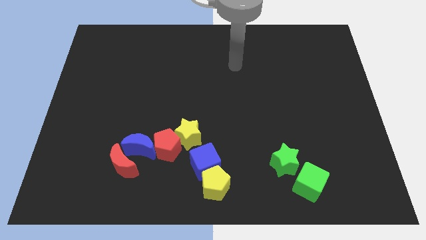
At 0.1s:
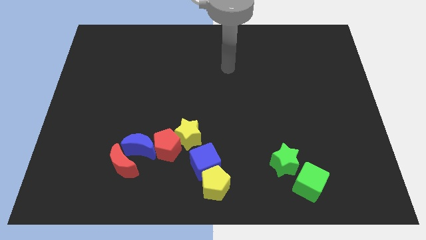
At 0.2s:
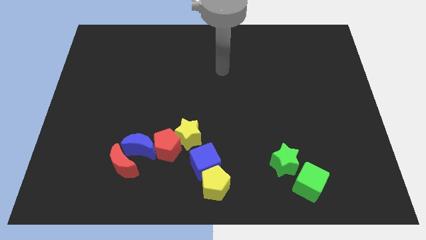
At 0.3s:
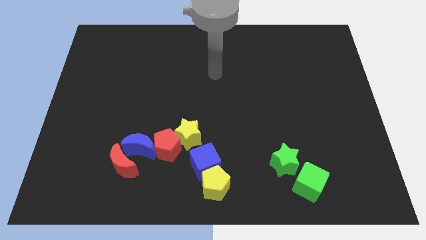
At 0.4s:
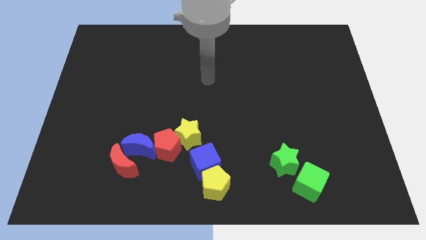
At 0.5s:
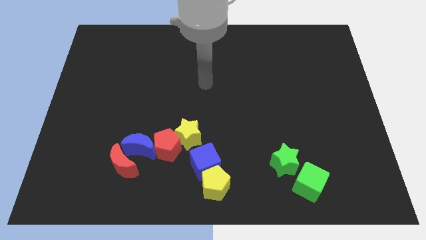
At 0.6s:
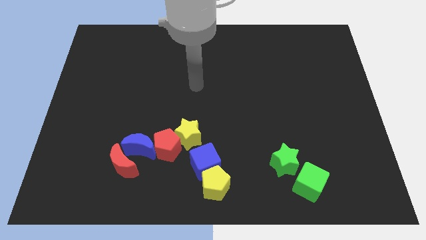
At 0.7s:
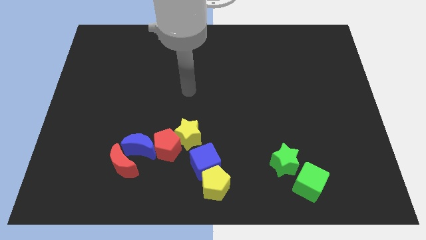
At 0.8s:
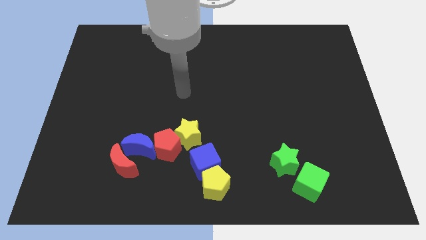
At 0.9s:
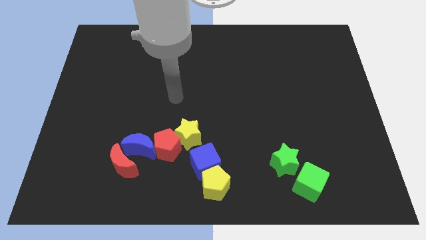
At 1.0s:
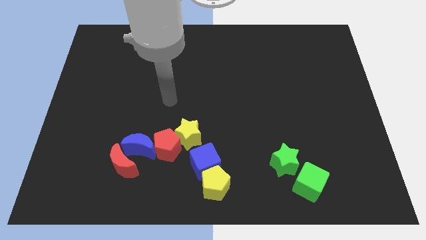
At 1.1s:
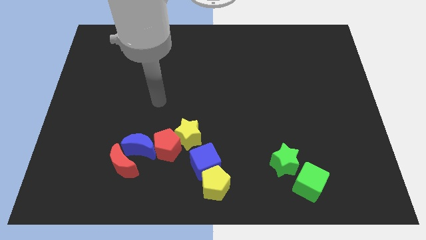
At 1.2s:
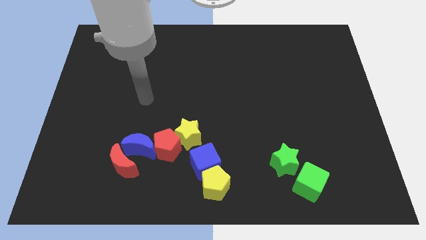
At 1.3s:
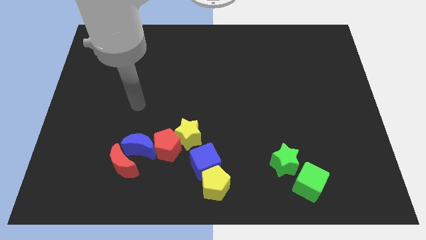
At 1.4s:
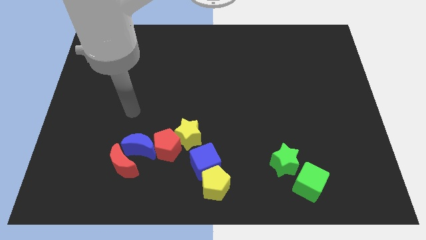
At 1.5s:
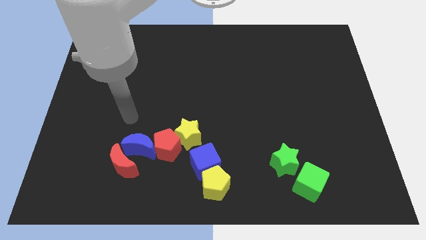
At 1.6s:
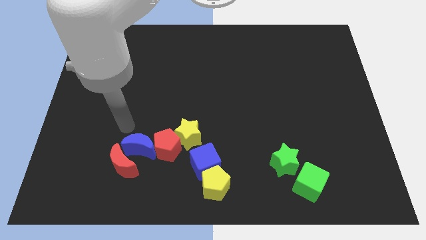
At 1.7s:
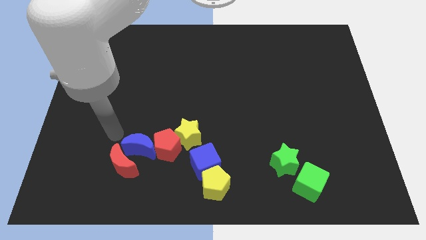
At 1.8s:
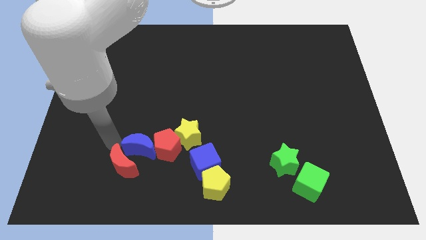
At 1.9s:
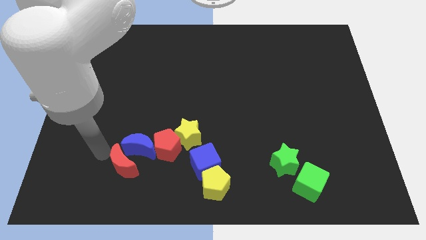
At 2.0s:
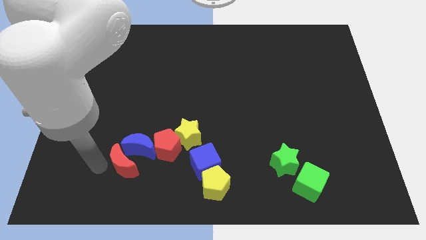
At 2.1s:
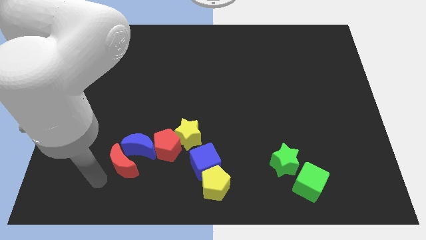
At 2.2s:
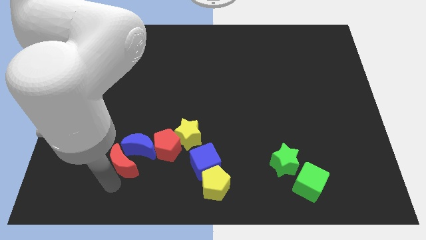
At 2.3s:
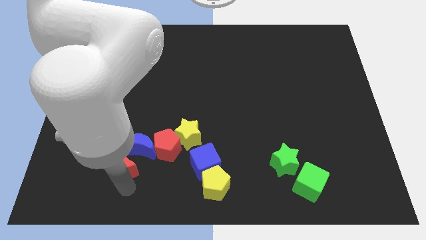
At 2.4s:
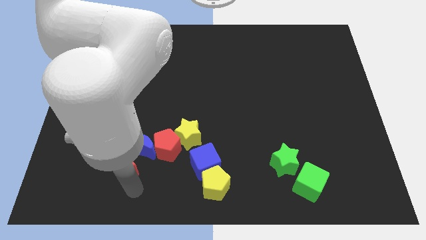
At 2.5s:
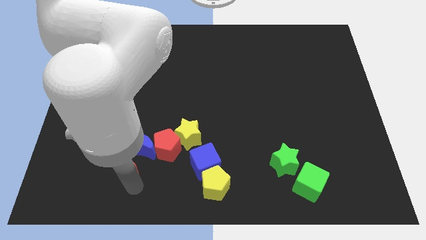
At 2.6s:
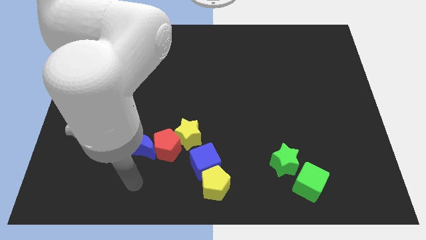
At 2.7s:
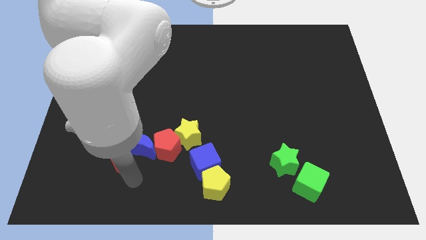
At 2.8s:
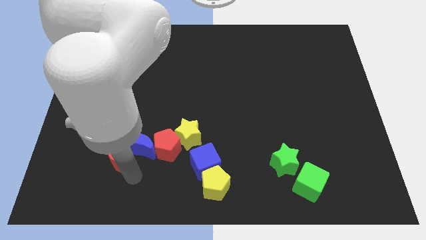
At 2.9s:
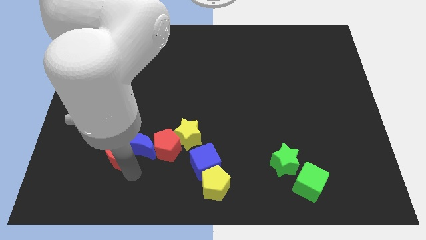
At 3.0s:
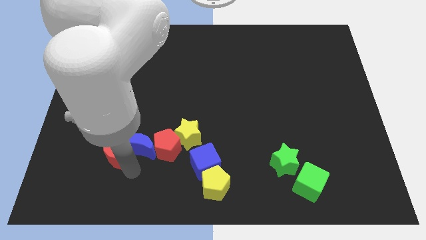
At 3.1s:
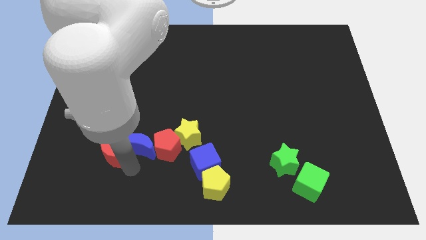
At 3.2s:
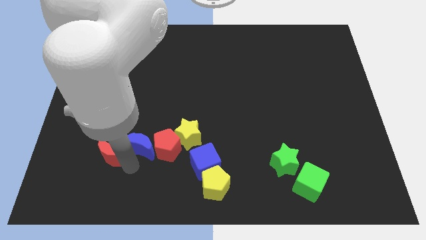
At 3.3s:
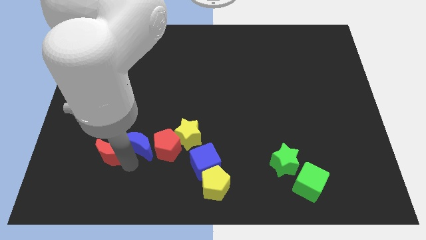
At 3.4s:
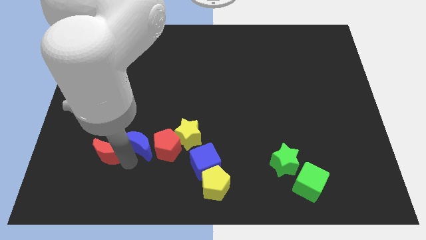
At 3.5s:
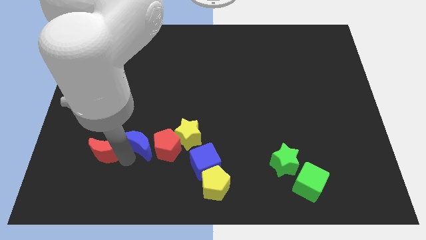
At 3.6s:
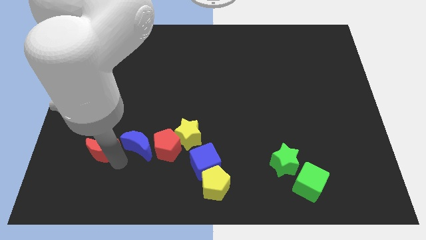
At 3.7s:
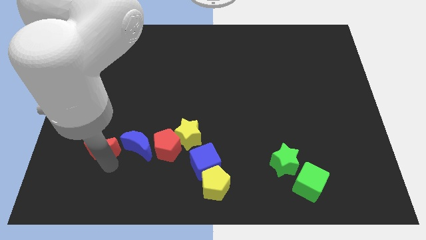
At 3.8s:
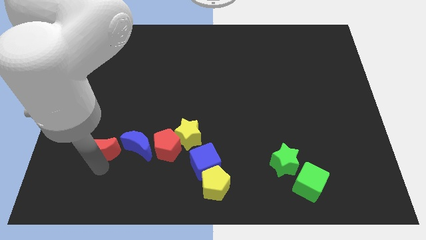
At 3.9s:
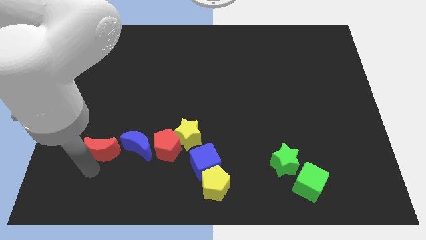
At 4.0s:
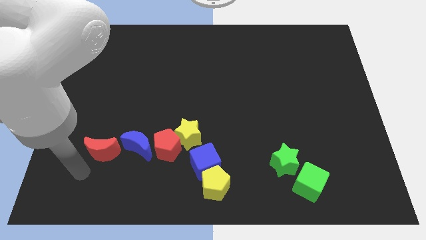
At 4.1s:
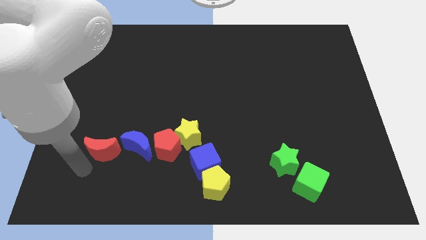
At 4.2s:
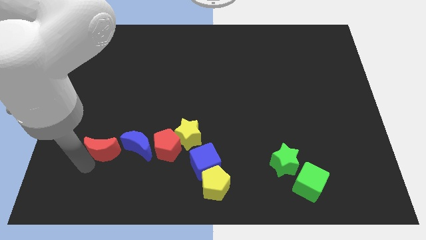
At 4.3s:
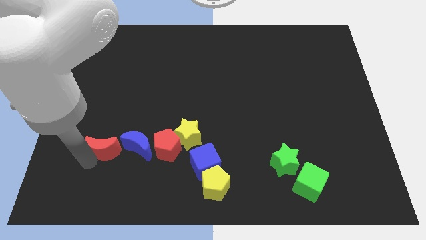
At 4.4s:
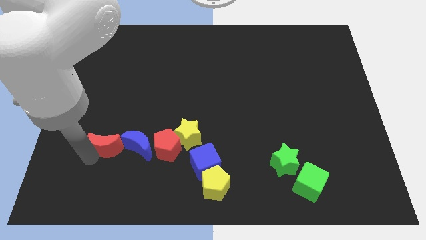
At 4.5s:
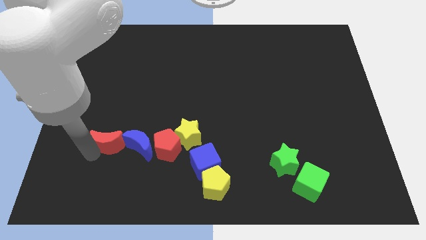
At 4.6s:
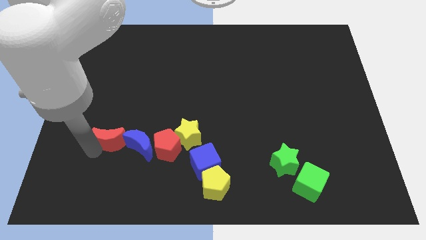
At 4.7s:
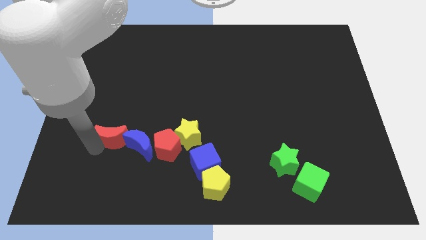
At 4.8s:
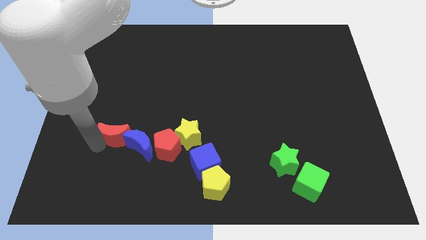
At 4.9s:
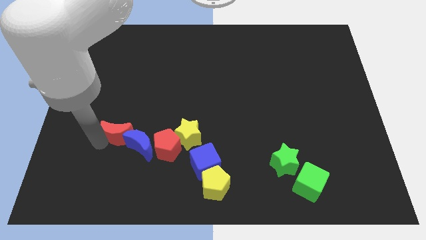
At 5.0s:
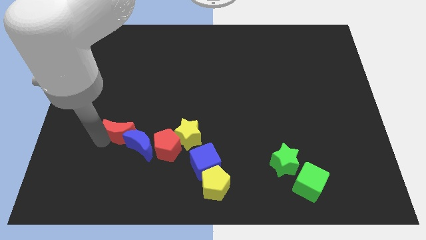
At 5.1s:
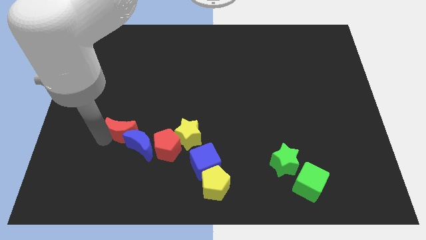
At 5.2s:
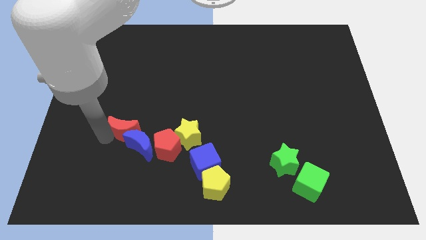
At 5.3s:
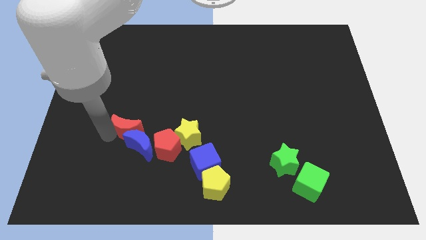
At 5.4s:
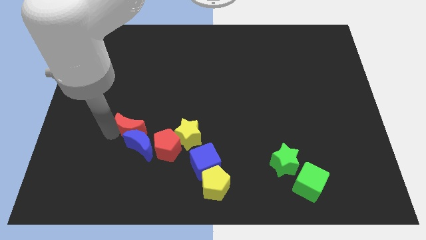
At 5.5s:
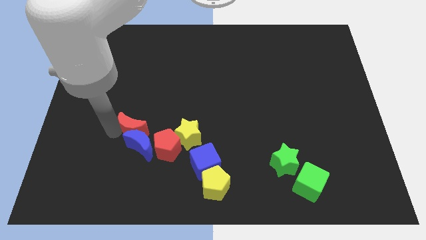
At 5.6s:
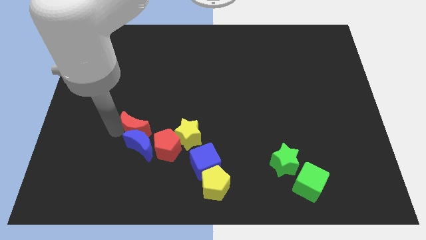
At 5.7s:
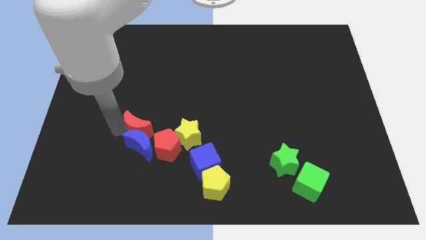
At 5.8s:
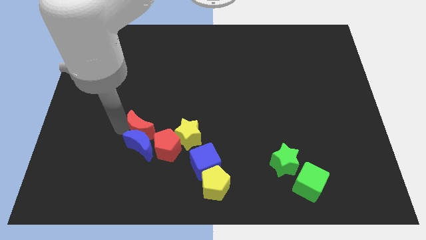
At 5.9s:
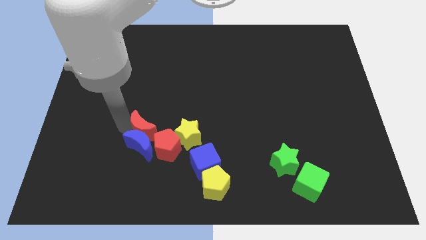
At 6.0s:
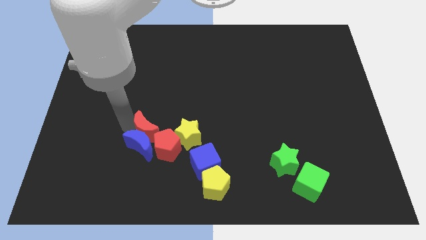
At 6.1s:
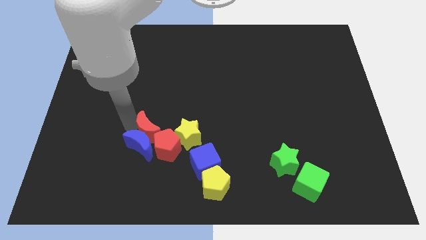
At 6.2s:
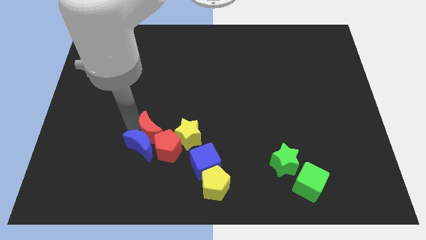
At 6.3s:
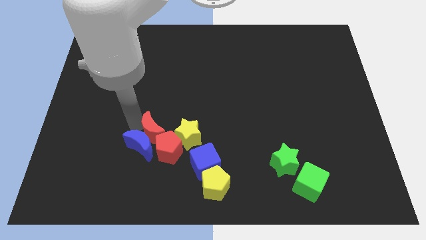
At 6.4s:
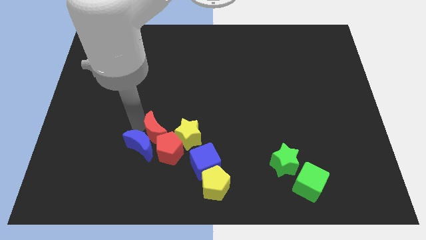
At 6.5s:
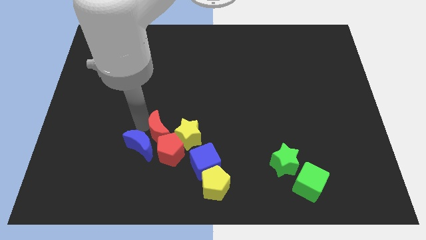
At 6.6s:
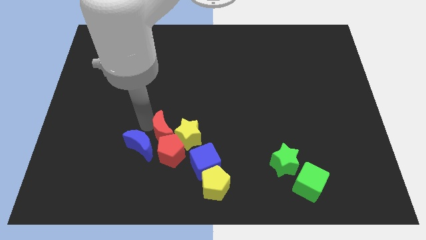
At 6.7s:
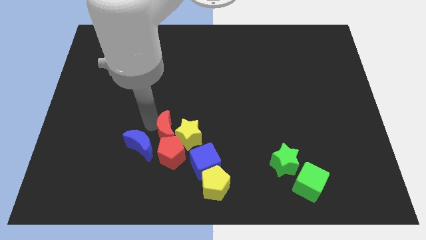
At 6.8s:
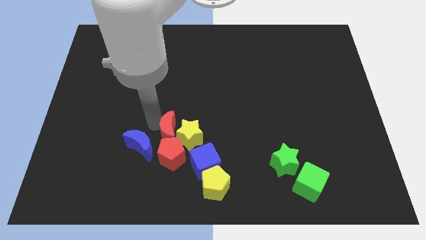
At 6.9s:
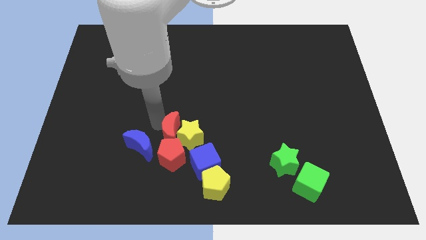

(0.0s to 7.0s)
move the red moon to the top right of the red pentagon

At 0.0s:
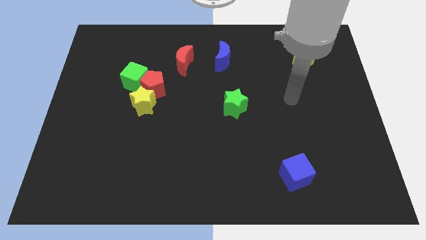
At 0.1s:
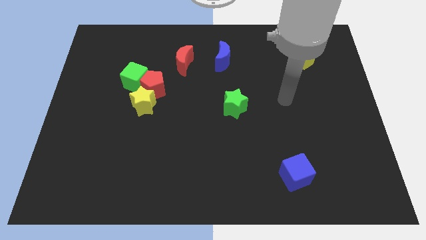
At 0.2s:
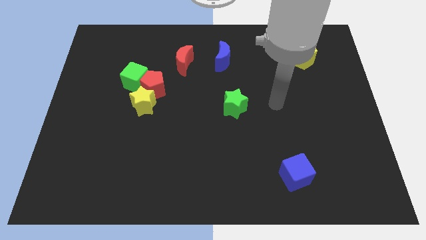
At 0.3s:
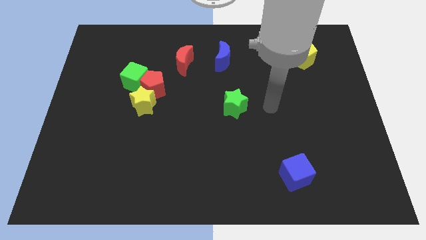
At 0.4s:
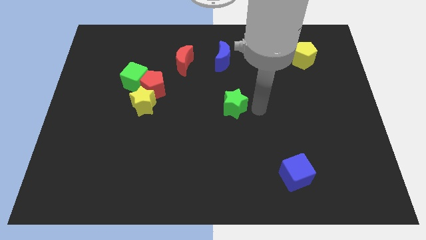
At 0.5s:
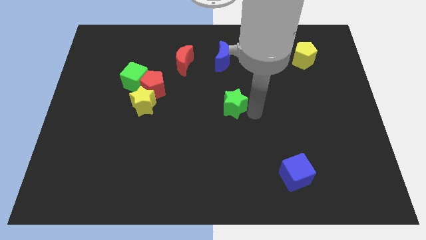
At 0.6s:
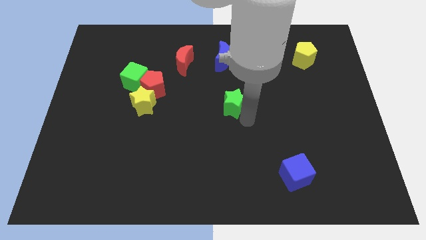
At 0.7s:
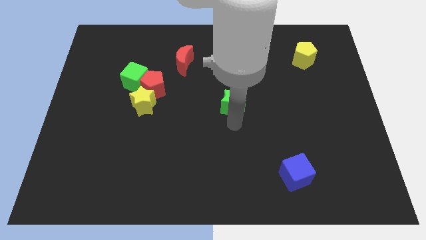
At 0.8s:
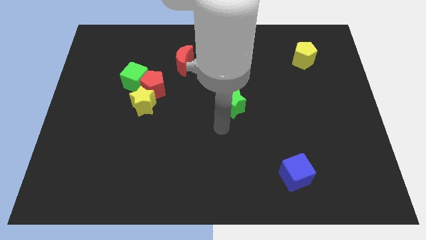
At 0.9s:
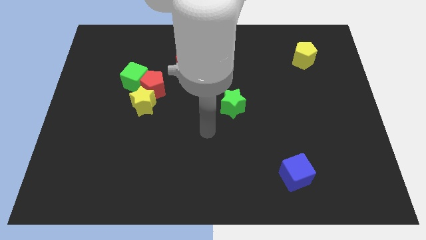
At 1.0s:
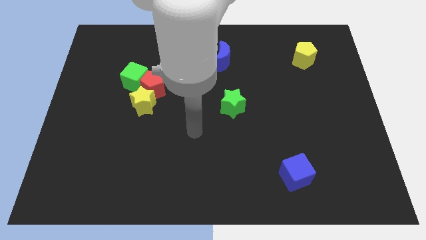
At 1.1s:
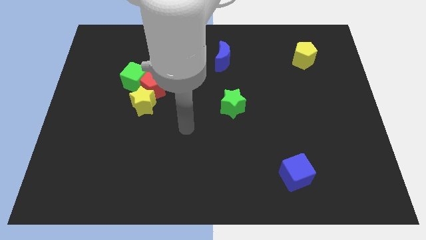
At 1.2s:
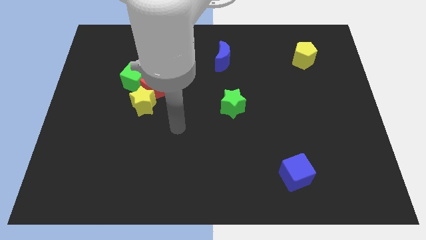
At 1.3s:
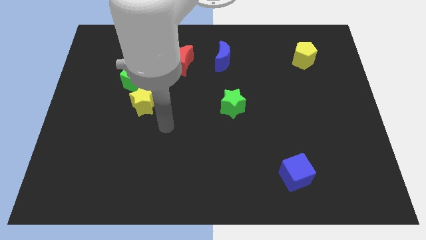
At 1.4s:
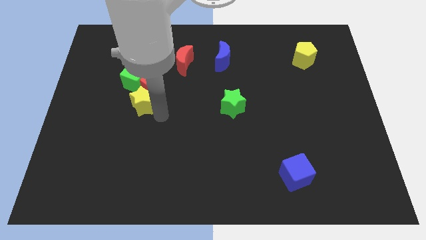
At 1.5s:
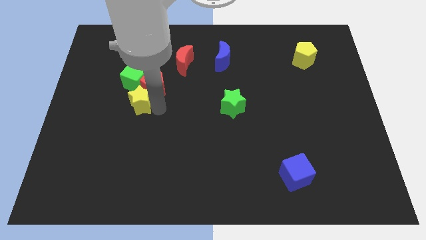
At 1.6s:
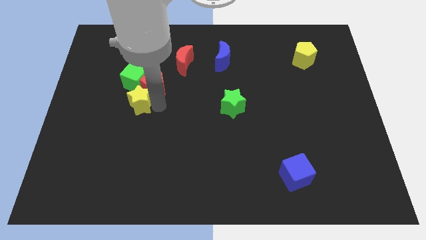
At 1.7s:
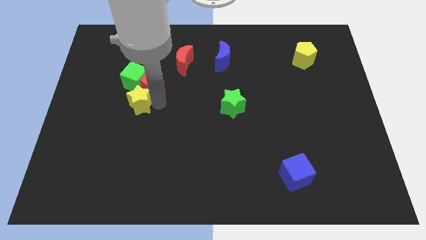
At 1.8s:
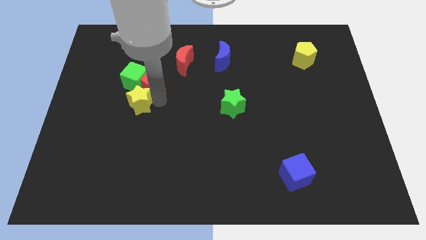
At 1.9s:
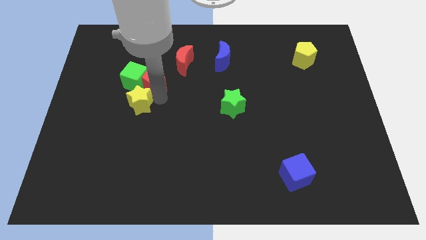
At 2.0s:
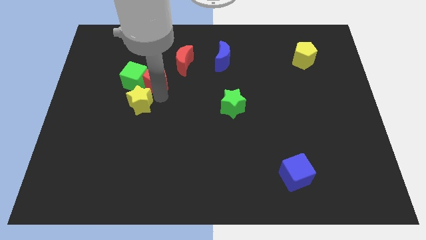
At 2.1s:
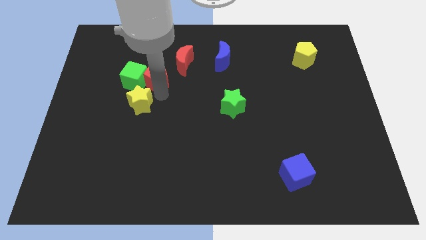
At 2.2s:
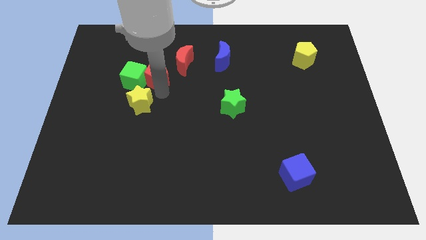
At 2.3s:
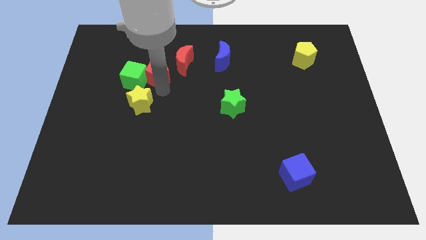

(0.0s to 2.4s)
push the red pentagon left of the red moon
